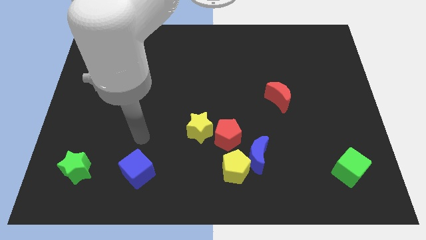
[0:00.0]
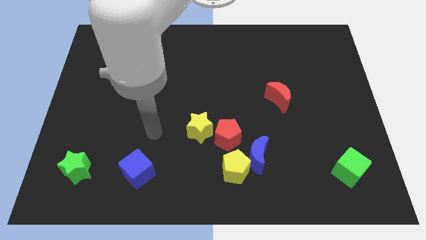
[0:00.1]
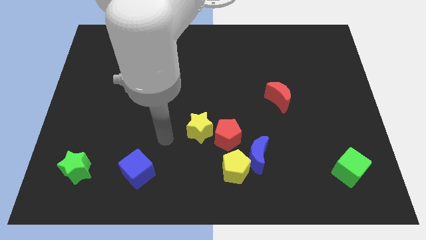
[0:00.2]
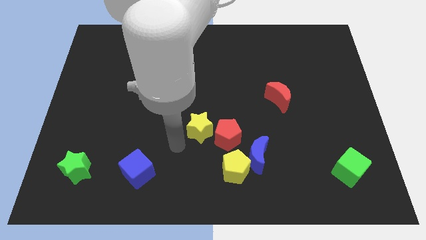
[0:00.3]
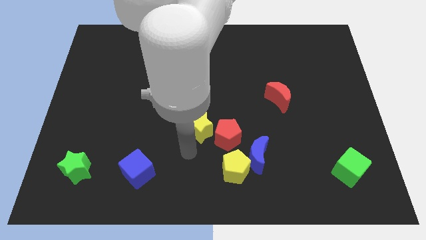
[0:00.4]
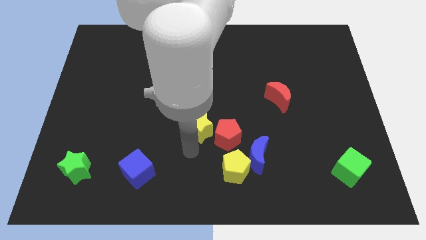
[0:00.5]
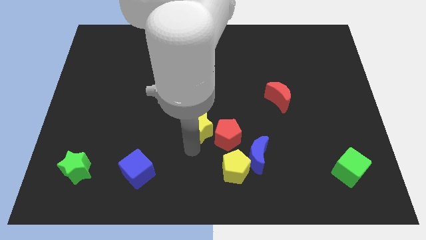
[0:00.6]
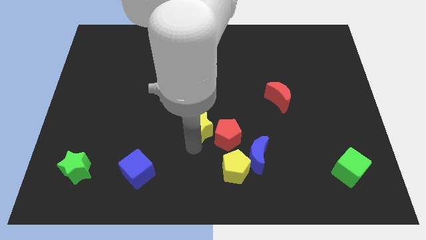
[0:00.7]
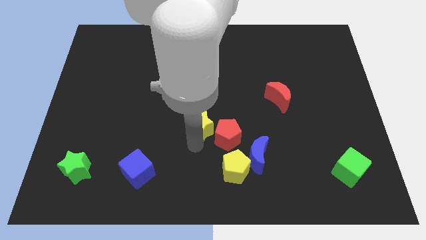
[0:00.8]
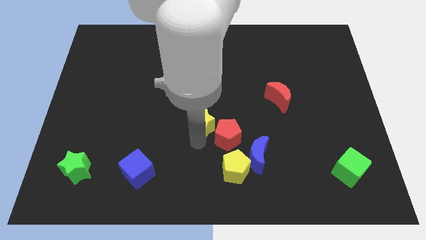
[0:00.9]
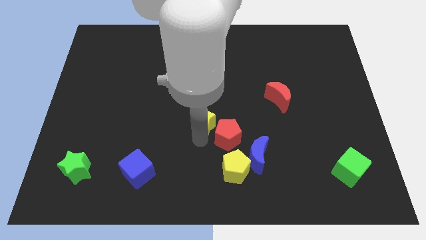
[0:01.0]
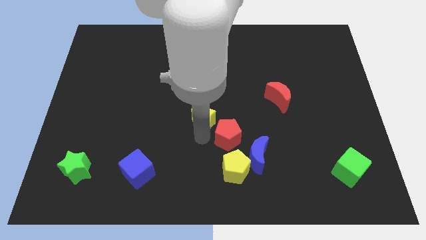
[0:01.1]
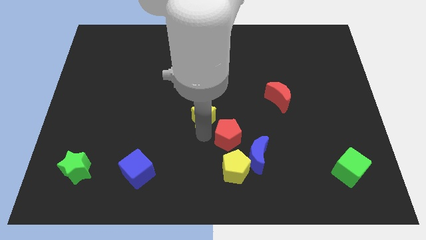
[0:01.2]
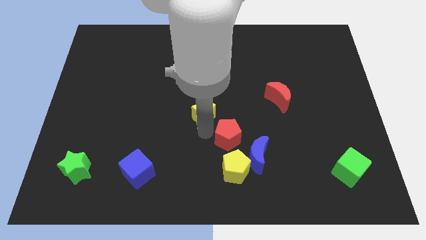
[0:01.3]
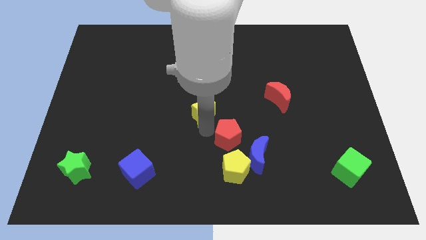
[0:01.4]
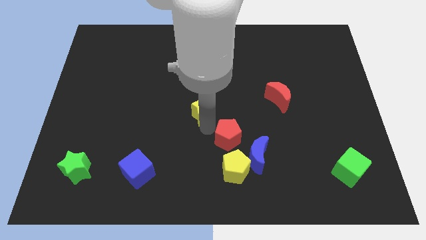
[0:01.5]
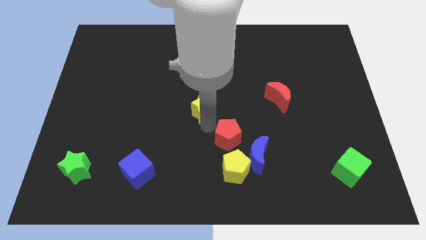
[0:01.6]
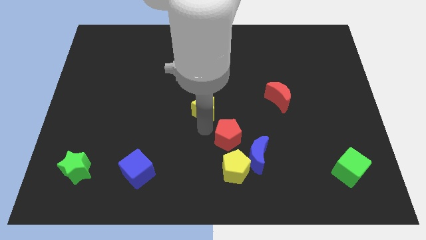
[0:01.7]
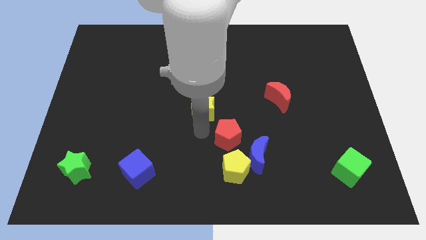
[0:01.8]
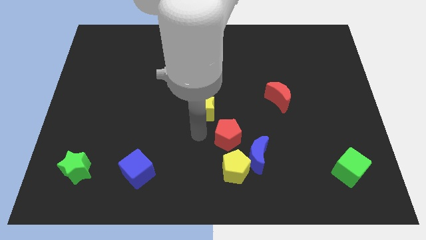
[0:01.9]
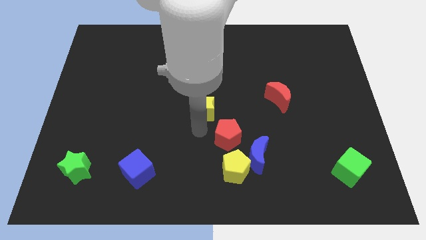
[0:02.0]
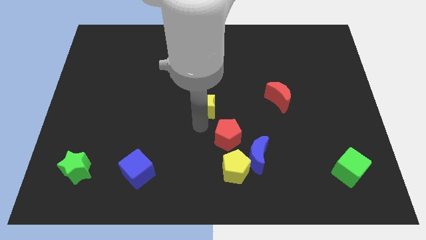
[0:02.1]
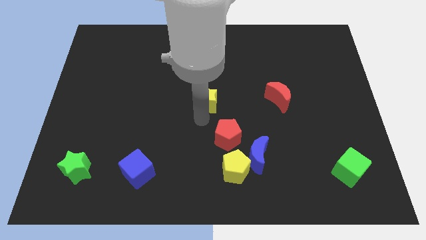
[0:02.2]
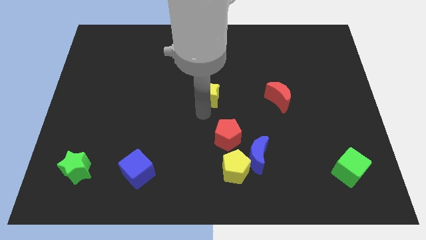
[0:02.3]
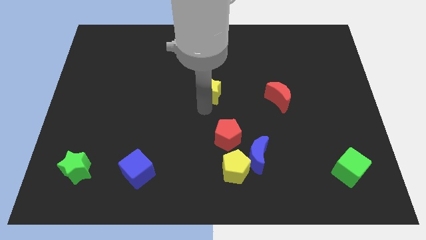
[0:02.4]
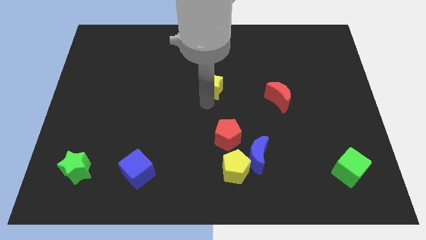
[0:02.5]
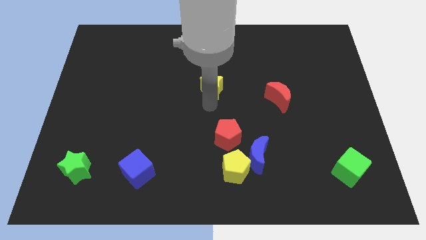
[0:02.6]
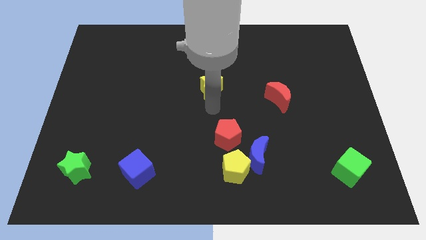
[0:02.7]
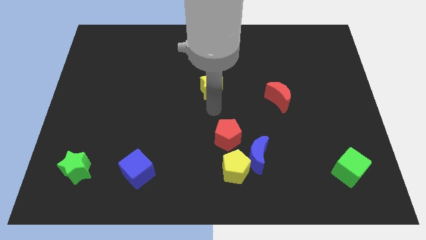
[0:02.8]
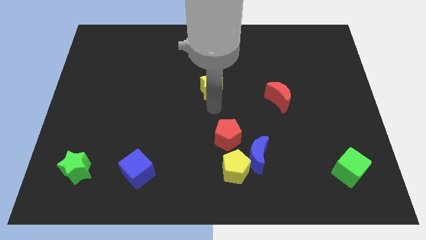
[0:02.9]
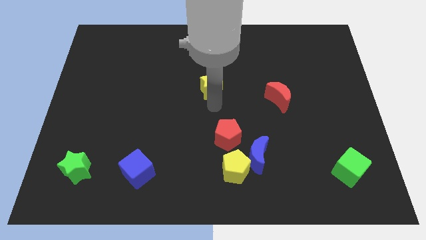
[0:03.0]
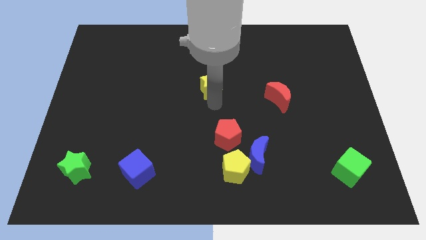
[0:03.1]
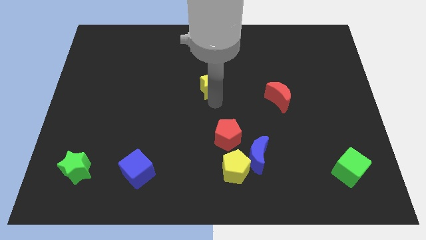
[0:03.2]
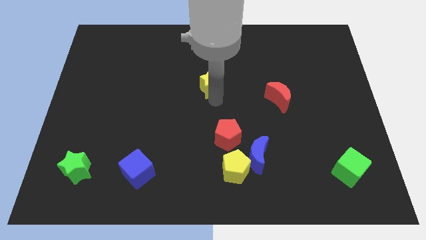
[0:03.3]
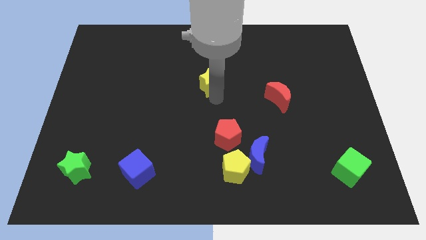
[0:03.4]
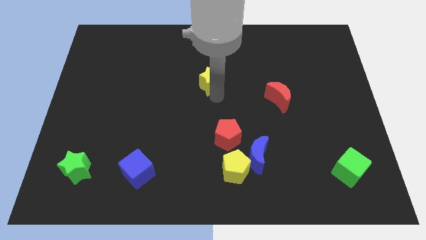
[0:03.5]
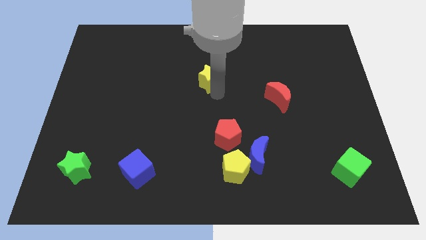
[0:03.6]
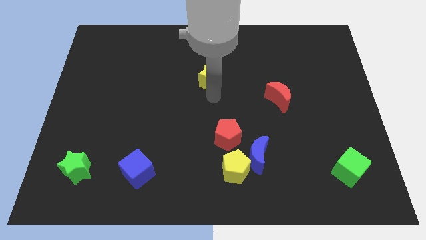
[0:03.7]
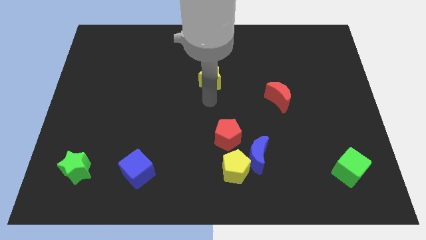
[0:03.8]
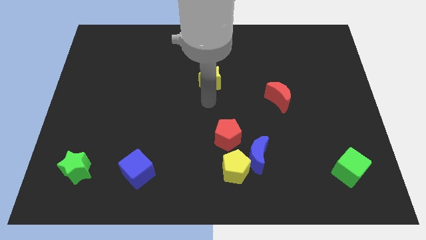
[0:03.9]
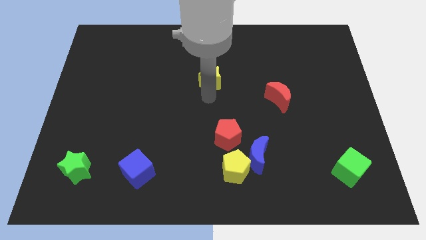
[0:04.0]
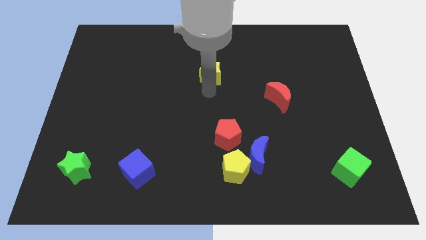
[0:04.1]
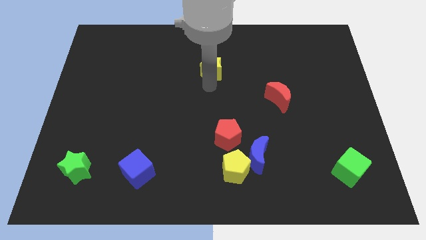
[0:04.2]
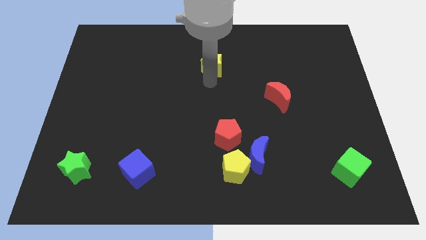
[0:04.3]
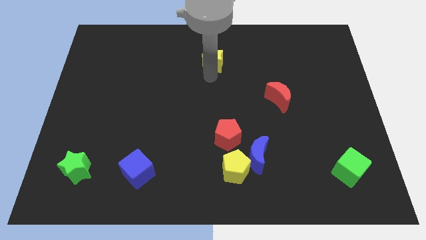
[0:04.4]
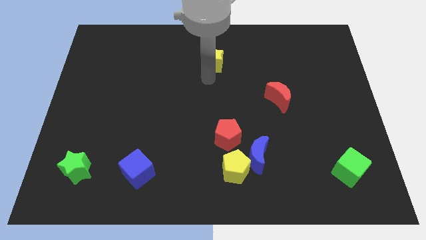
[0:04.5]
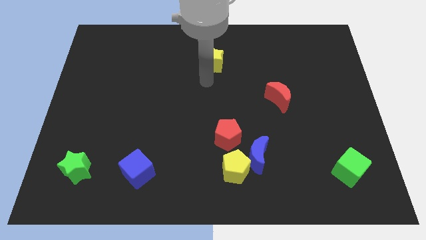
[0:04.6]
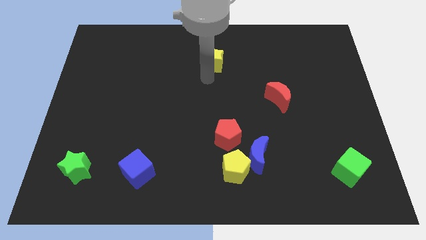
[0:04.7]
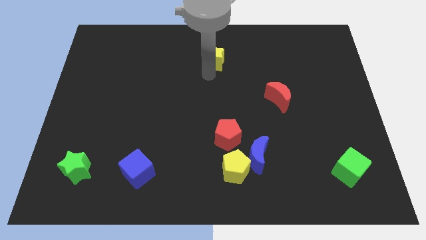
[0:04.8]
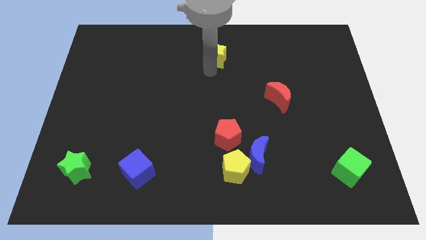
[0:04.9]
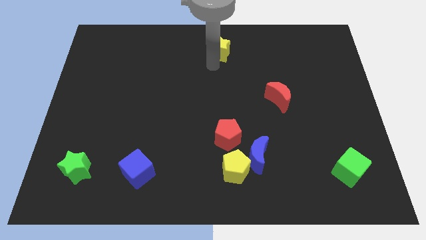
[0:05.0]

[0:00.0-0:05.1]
push the yellow star to the top
